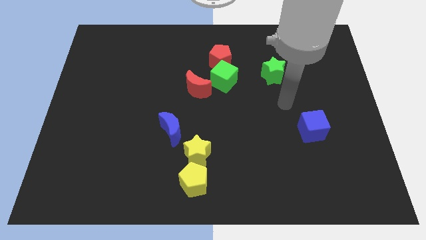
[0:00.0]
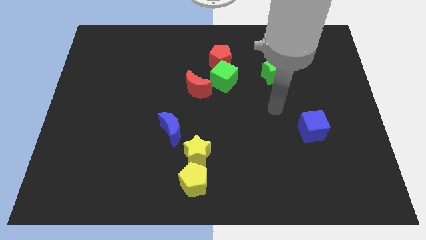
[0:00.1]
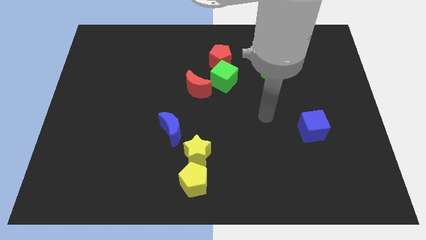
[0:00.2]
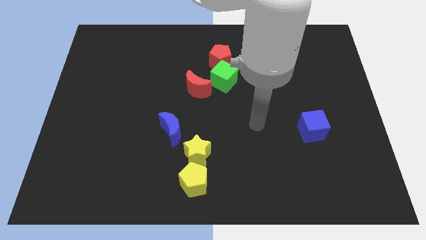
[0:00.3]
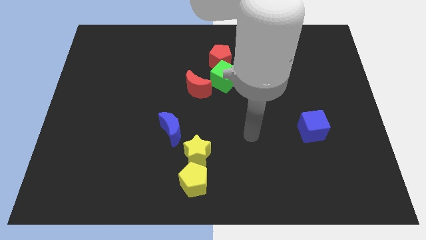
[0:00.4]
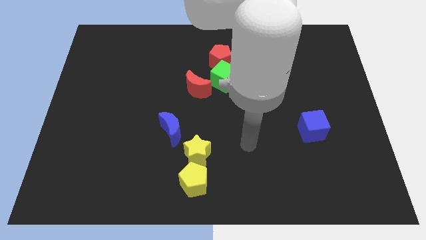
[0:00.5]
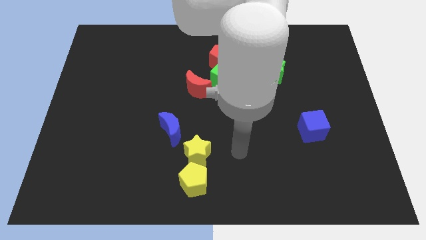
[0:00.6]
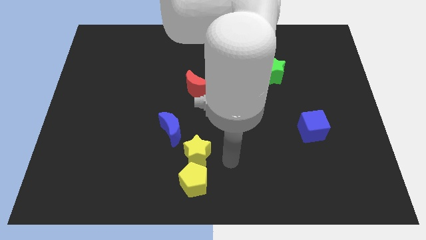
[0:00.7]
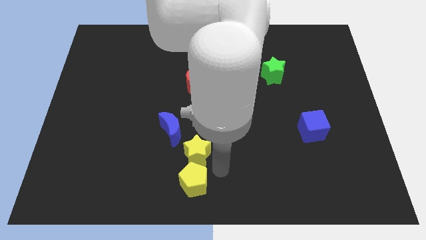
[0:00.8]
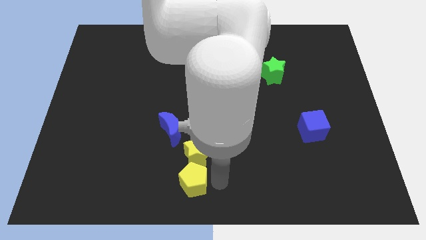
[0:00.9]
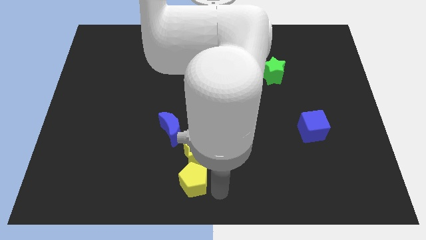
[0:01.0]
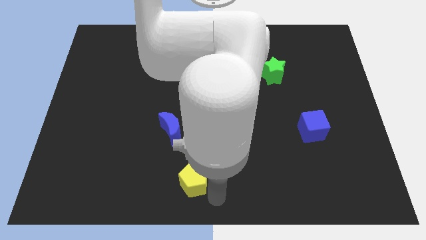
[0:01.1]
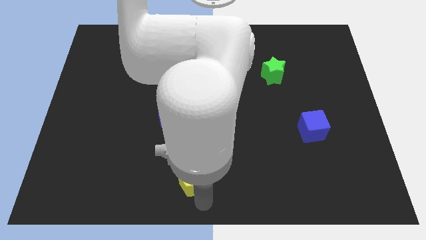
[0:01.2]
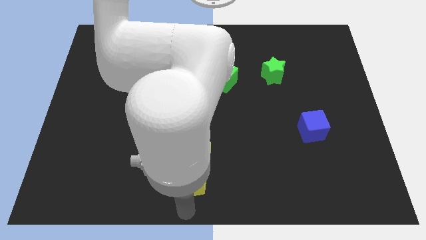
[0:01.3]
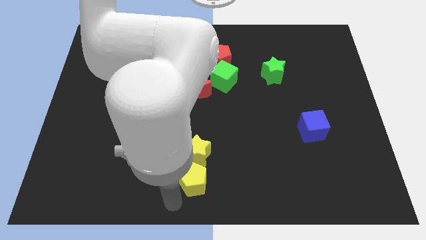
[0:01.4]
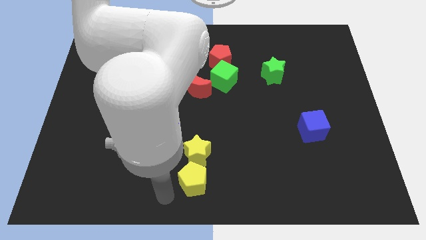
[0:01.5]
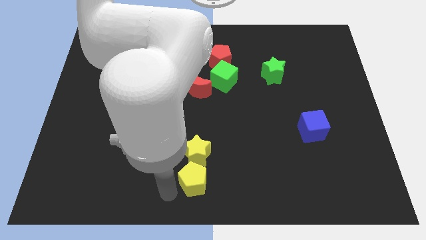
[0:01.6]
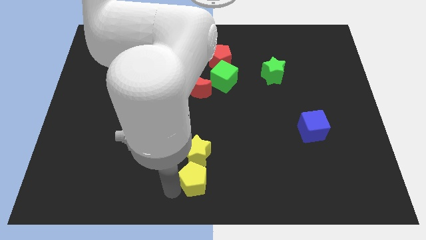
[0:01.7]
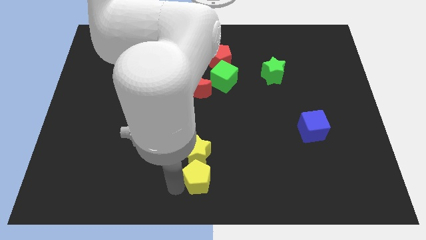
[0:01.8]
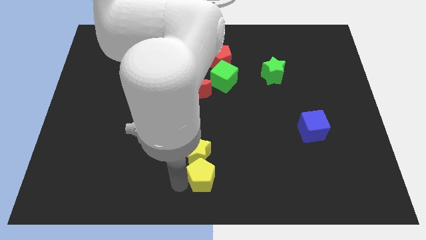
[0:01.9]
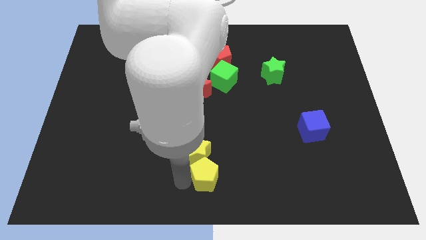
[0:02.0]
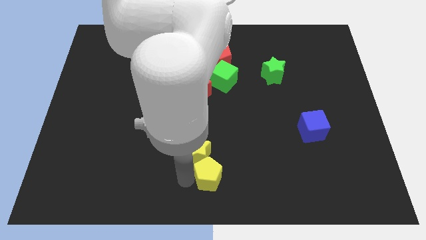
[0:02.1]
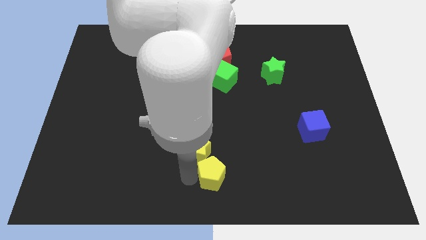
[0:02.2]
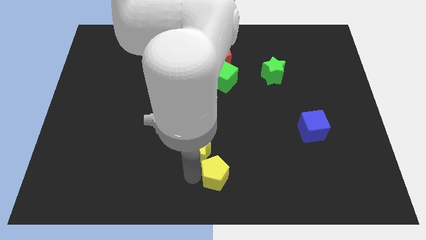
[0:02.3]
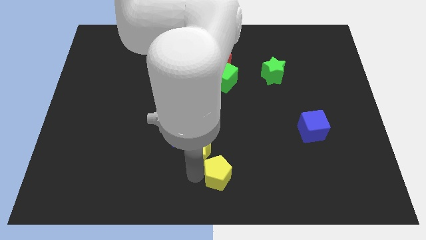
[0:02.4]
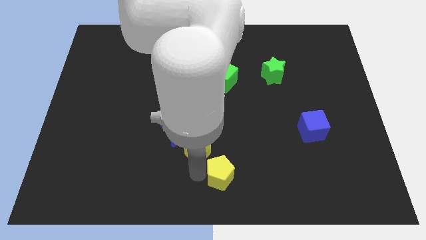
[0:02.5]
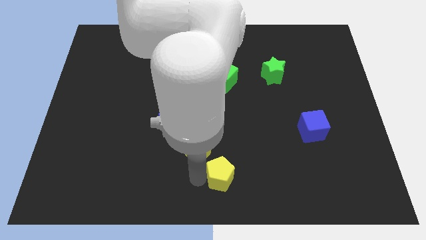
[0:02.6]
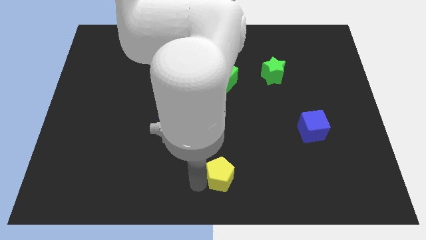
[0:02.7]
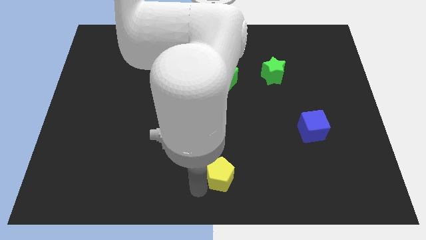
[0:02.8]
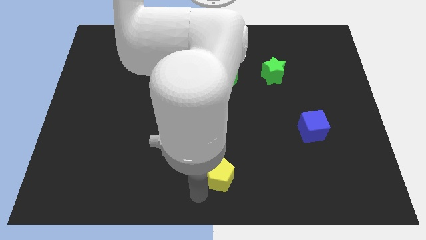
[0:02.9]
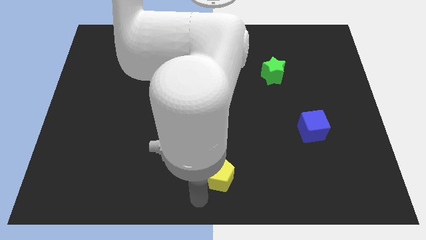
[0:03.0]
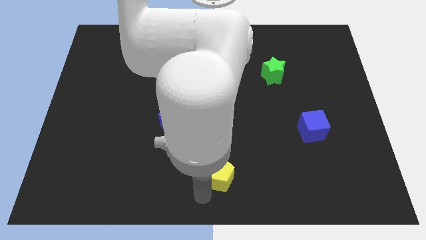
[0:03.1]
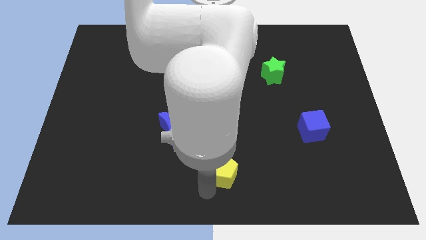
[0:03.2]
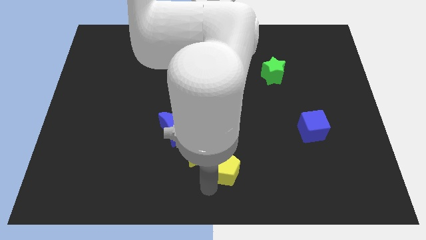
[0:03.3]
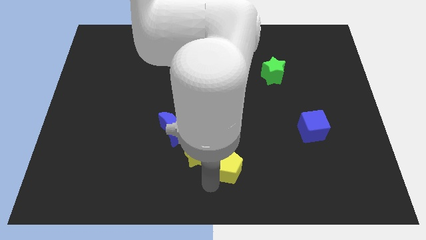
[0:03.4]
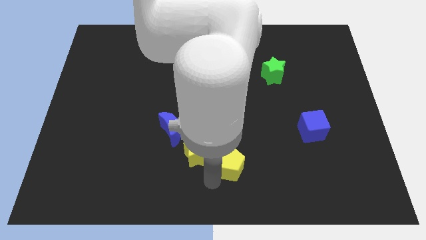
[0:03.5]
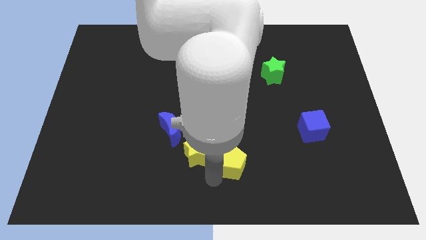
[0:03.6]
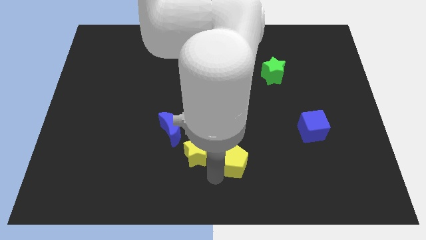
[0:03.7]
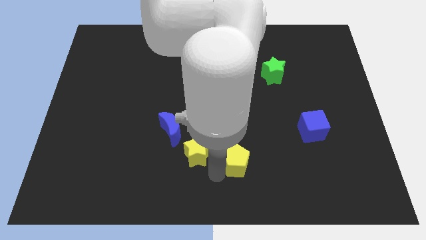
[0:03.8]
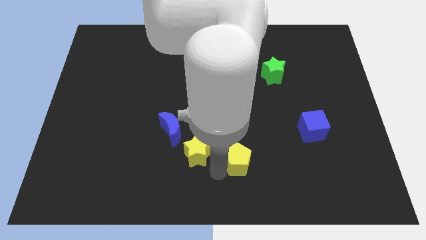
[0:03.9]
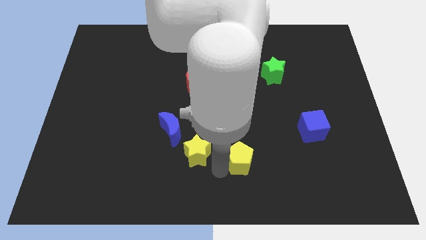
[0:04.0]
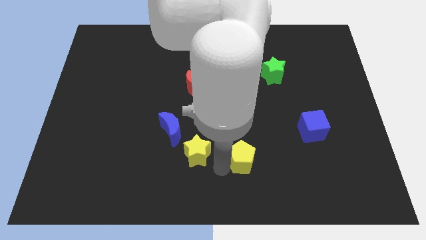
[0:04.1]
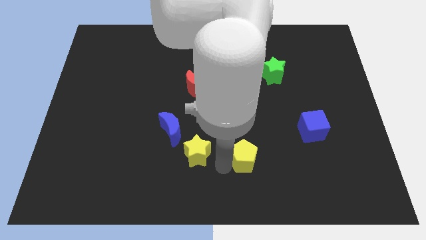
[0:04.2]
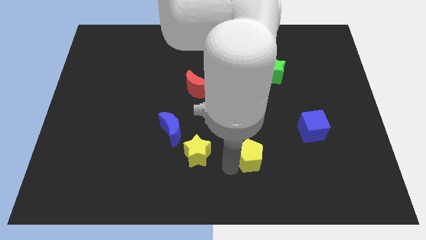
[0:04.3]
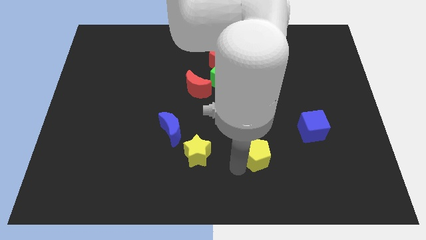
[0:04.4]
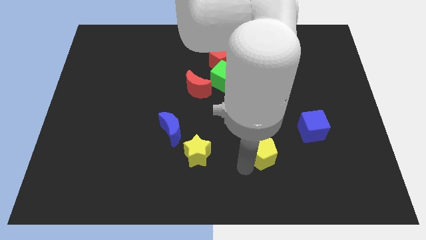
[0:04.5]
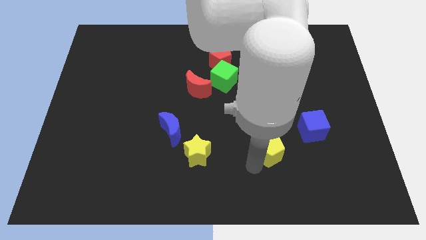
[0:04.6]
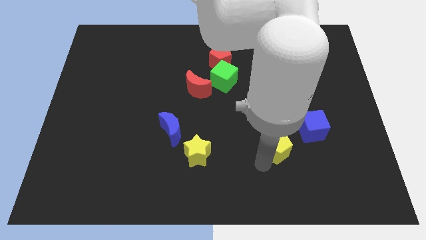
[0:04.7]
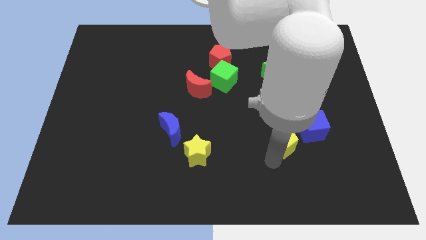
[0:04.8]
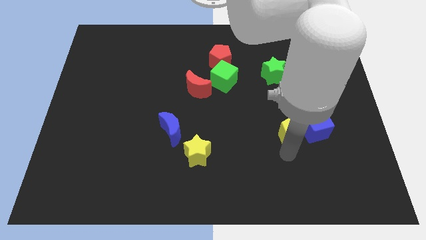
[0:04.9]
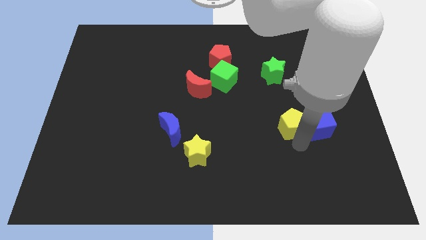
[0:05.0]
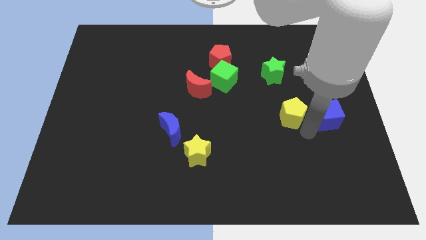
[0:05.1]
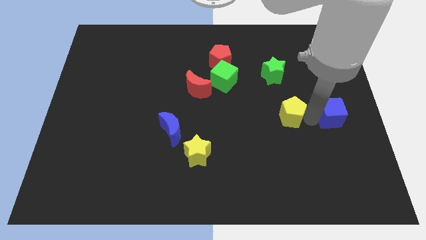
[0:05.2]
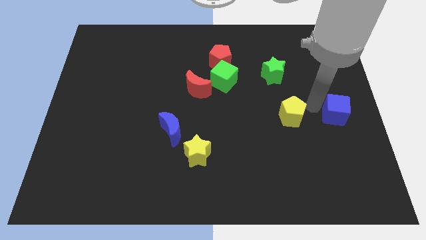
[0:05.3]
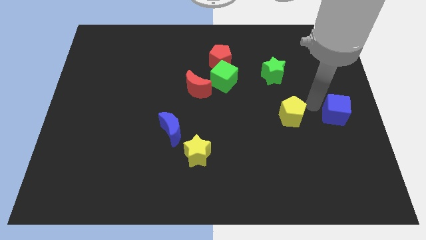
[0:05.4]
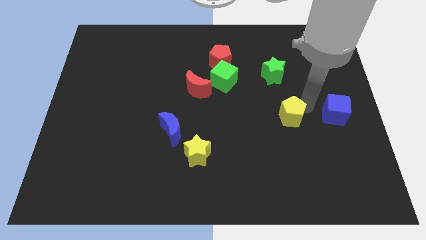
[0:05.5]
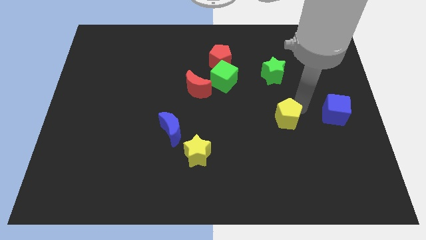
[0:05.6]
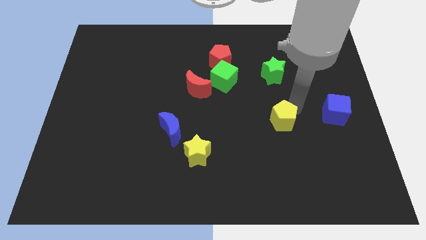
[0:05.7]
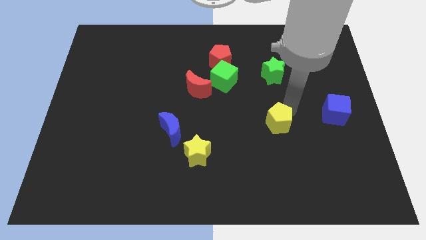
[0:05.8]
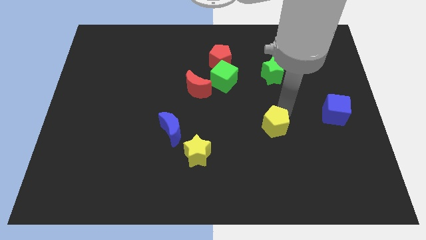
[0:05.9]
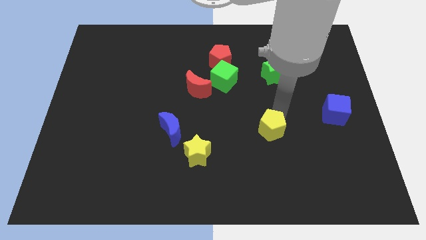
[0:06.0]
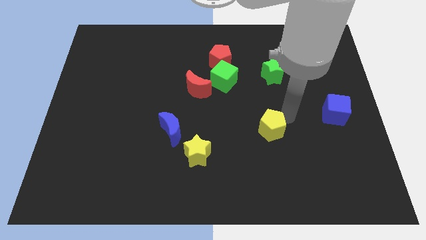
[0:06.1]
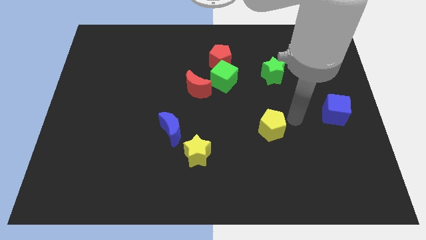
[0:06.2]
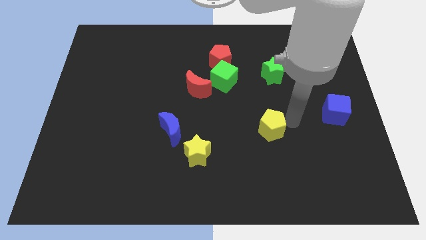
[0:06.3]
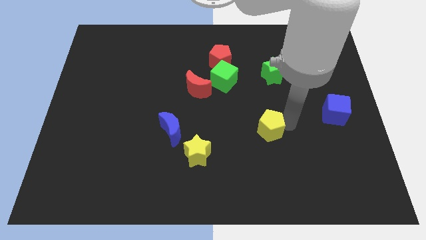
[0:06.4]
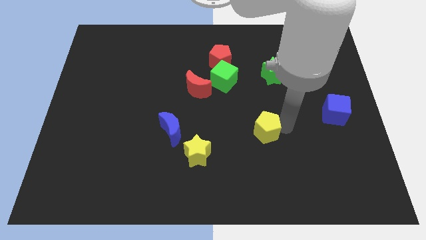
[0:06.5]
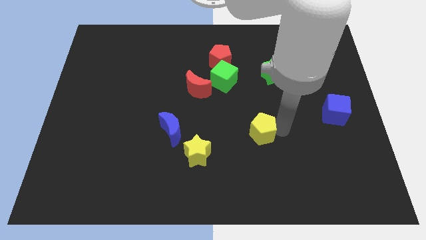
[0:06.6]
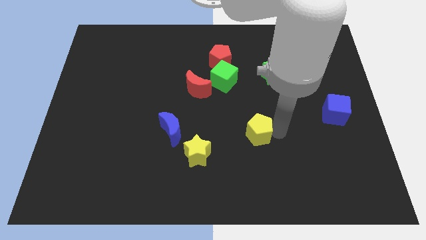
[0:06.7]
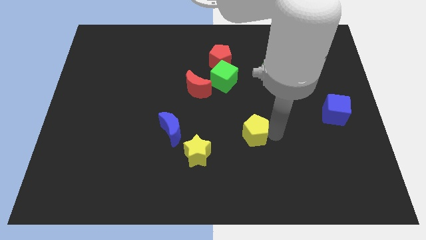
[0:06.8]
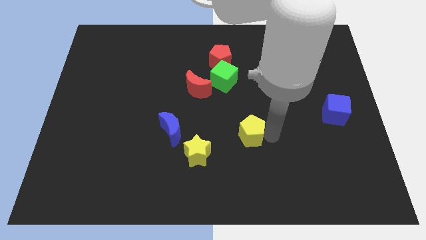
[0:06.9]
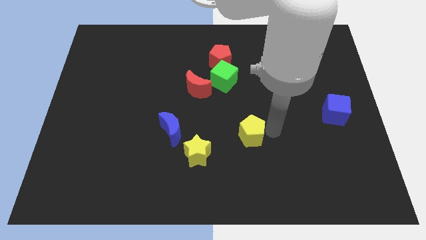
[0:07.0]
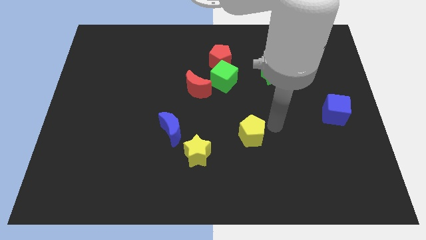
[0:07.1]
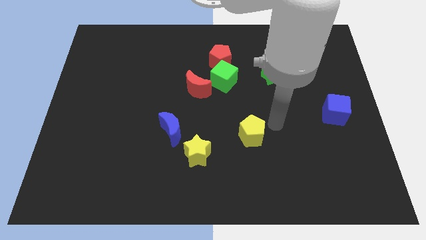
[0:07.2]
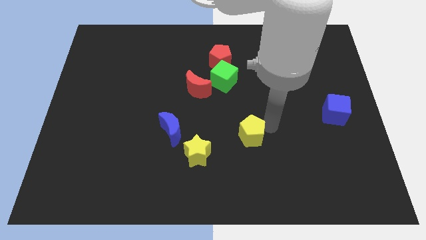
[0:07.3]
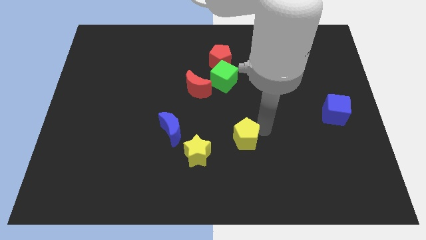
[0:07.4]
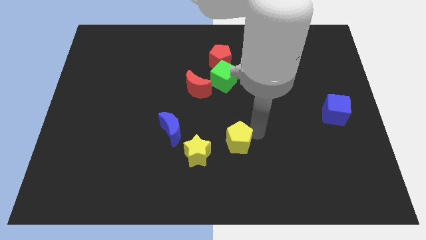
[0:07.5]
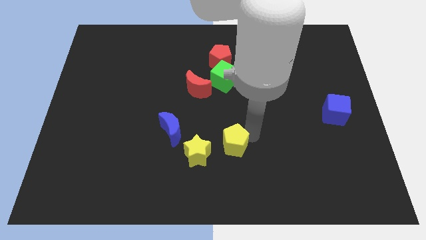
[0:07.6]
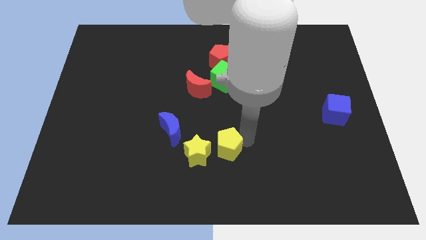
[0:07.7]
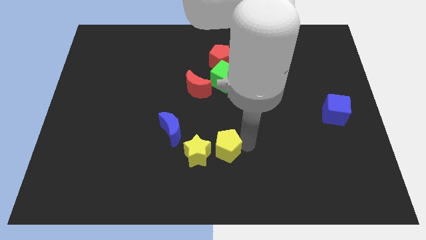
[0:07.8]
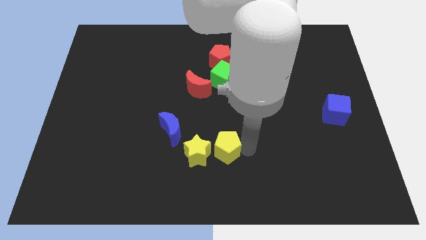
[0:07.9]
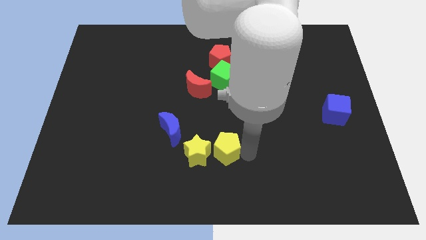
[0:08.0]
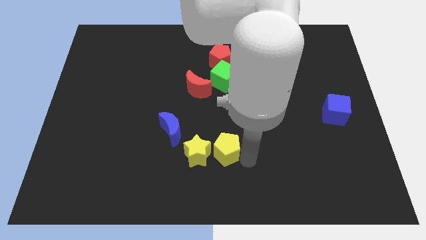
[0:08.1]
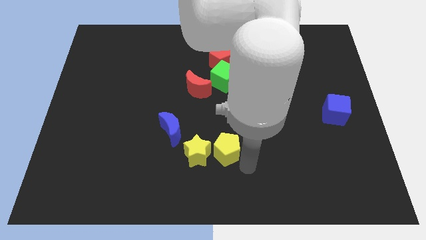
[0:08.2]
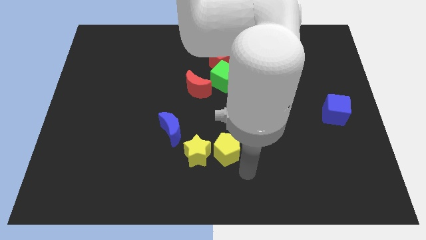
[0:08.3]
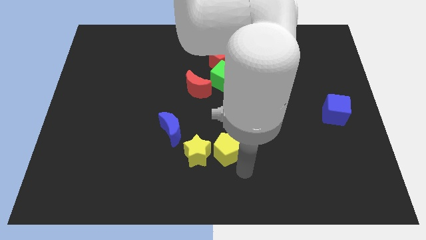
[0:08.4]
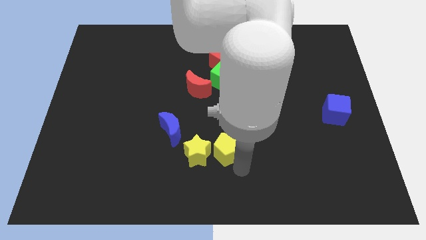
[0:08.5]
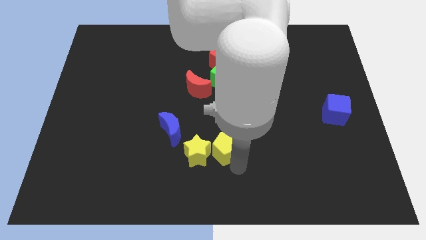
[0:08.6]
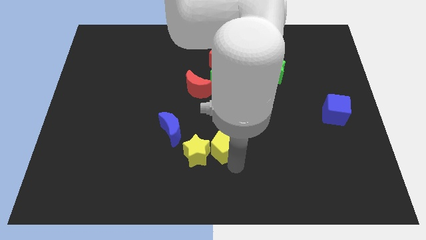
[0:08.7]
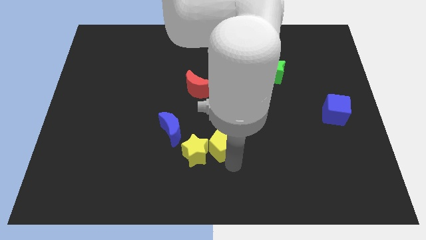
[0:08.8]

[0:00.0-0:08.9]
push the yellow pentagon upwards somewhat
